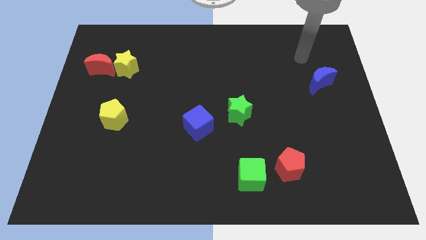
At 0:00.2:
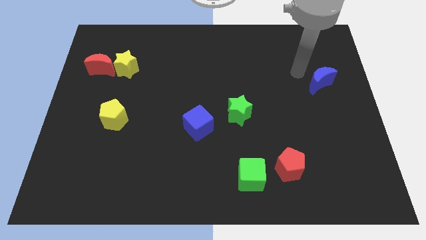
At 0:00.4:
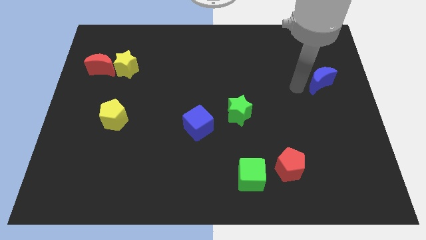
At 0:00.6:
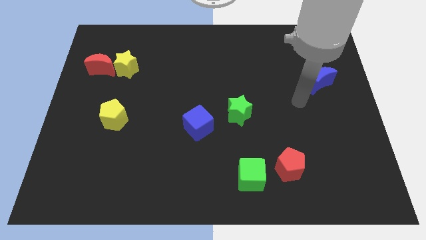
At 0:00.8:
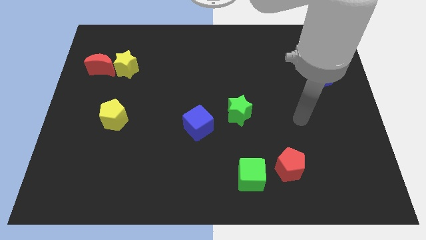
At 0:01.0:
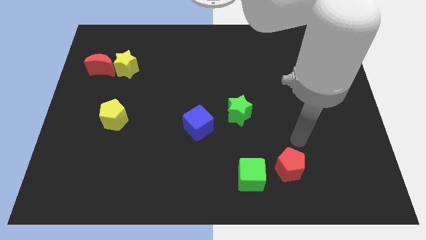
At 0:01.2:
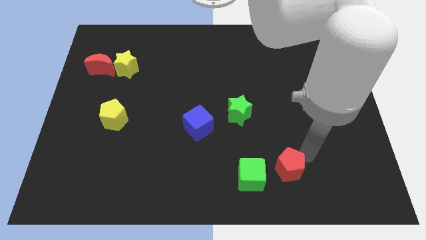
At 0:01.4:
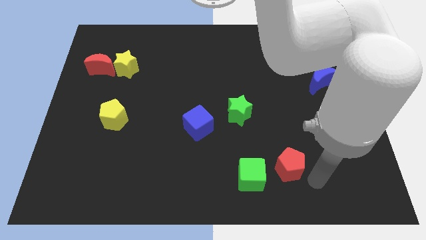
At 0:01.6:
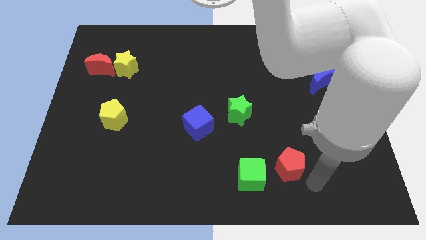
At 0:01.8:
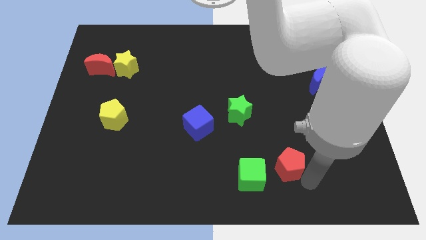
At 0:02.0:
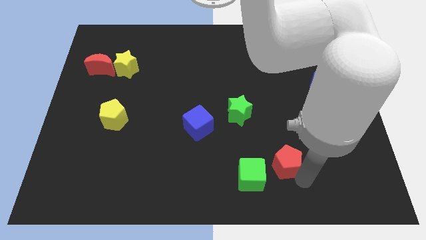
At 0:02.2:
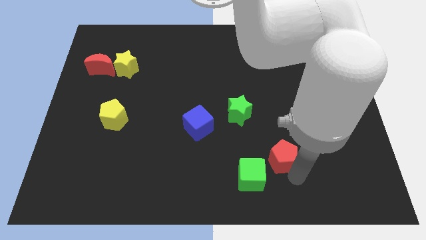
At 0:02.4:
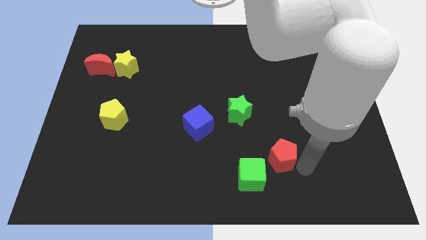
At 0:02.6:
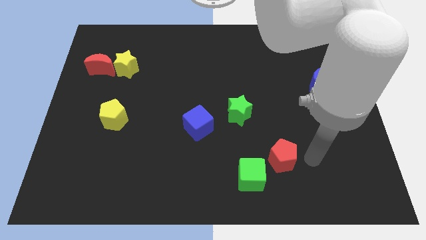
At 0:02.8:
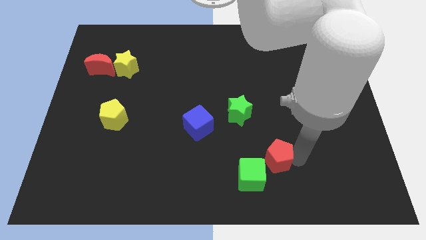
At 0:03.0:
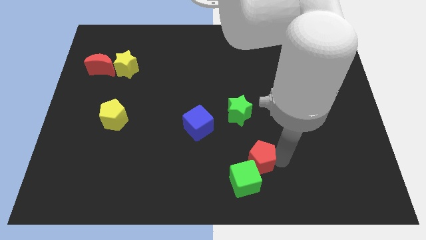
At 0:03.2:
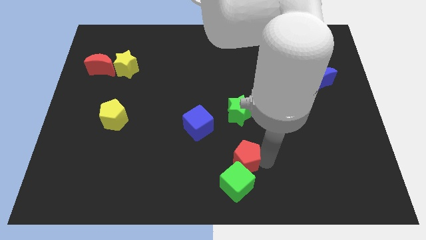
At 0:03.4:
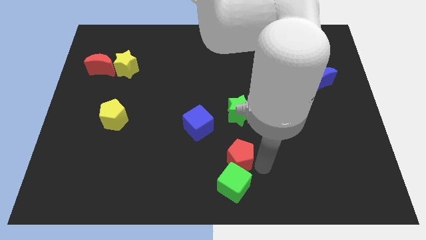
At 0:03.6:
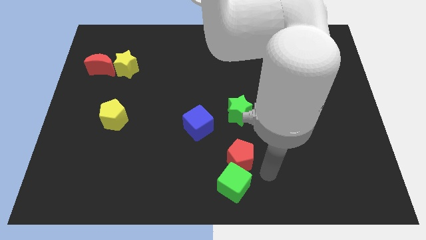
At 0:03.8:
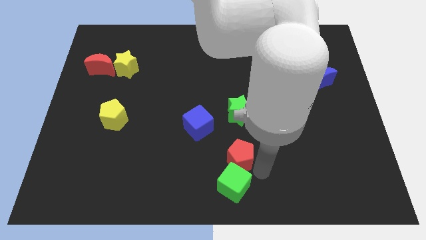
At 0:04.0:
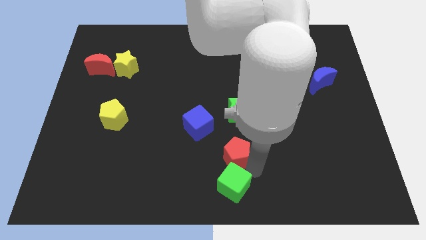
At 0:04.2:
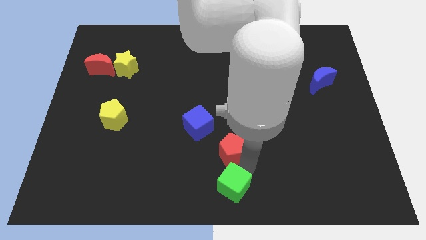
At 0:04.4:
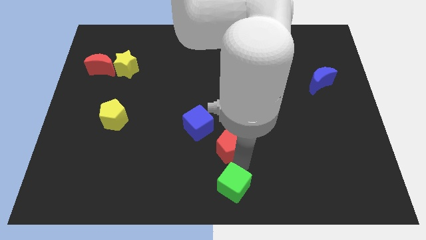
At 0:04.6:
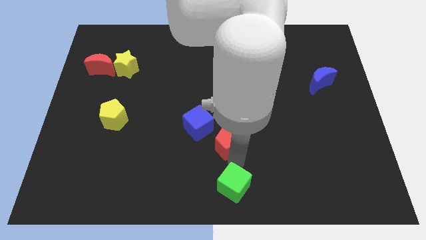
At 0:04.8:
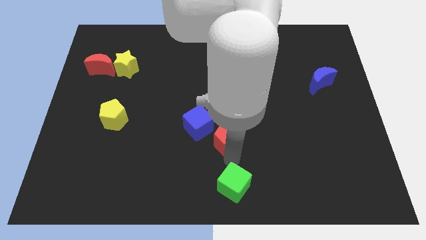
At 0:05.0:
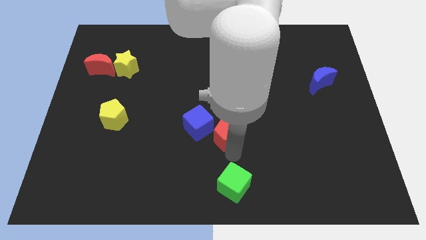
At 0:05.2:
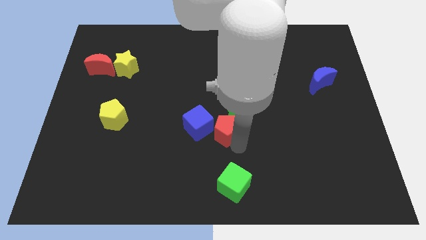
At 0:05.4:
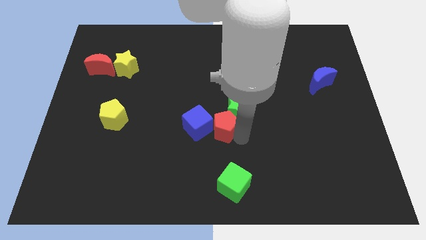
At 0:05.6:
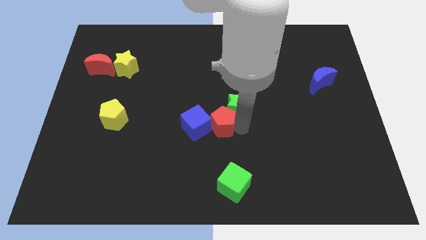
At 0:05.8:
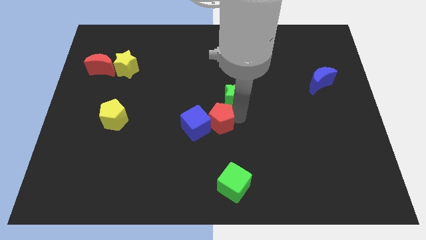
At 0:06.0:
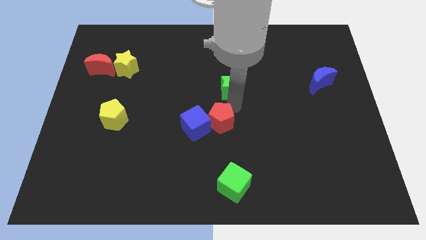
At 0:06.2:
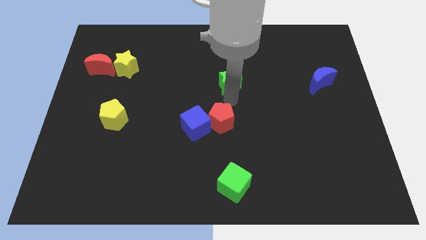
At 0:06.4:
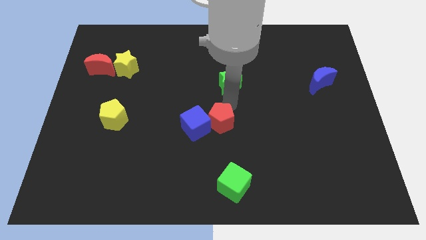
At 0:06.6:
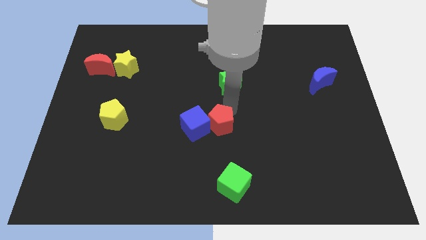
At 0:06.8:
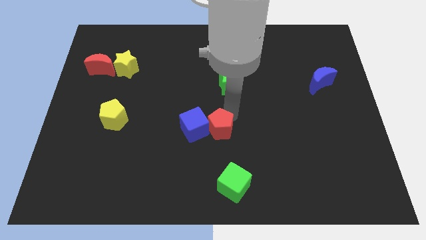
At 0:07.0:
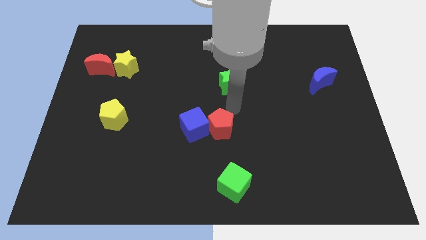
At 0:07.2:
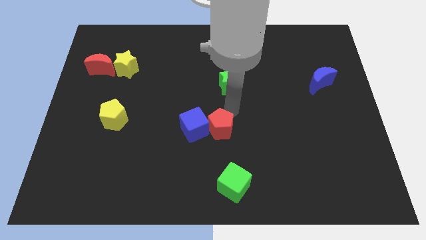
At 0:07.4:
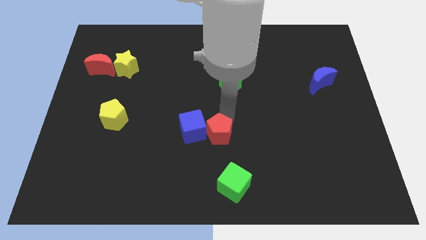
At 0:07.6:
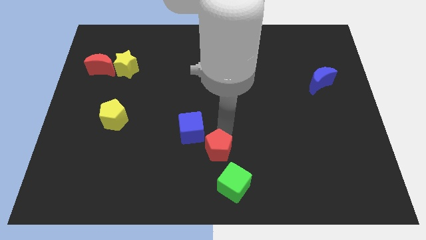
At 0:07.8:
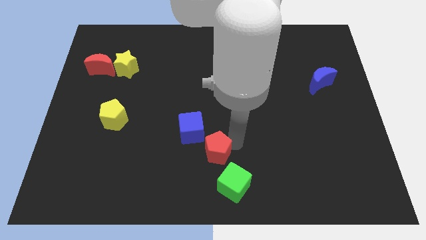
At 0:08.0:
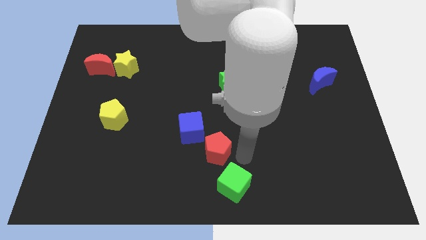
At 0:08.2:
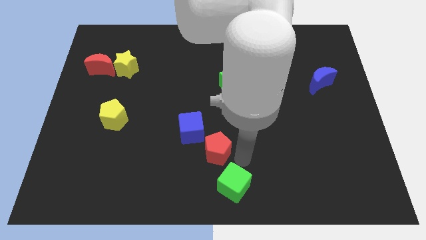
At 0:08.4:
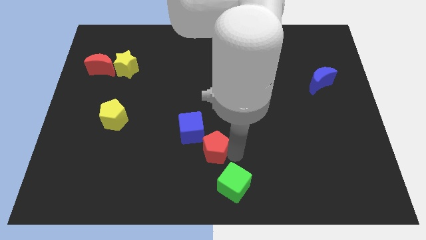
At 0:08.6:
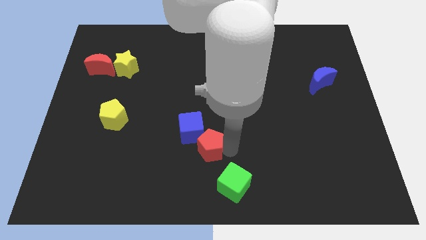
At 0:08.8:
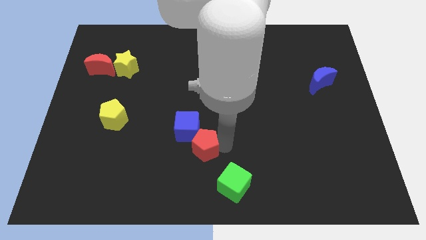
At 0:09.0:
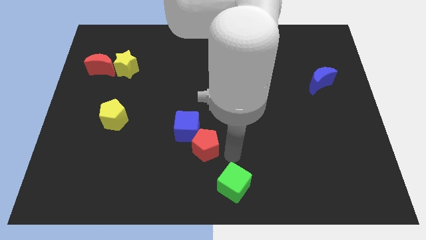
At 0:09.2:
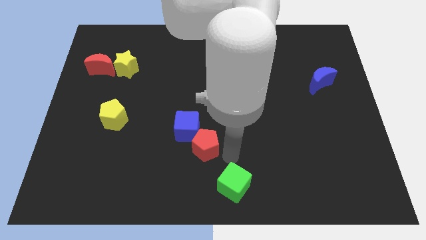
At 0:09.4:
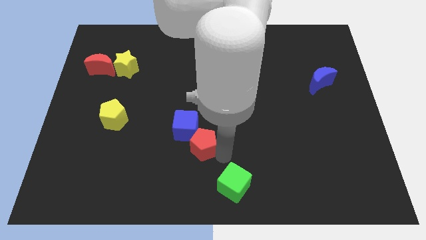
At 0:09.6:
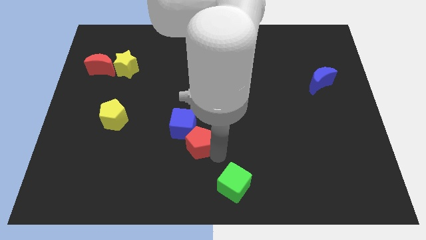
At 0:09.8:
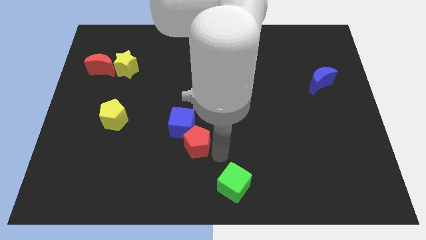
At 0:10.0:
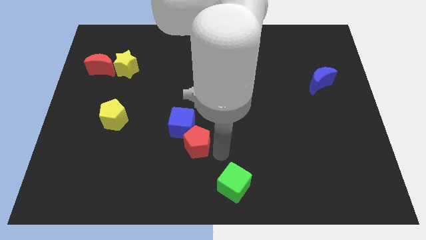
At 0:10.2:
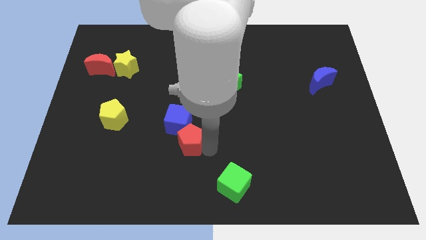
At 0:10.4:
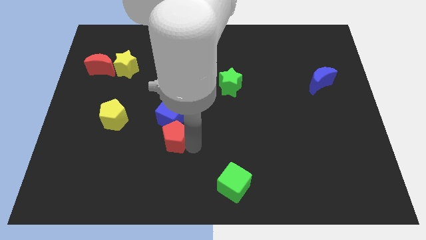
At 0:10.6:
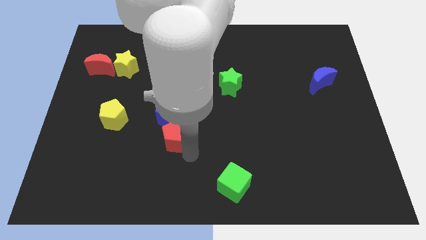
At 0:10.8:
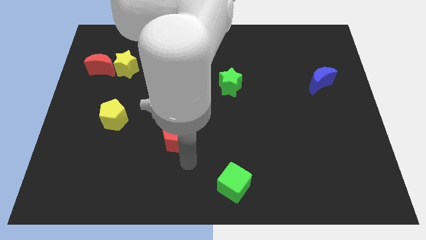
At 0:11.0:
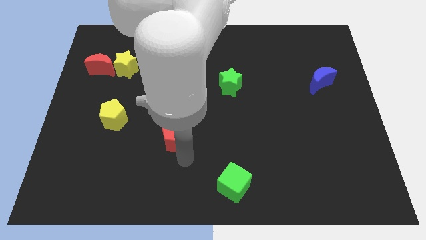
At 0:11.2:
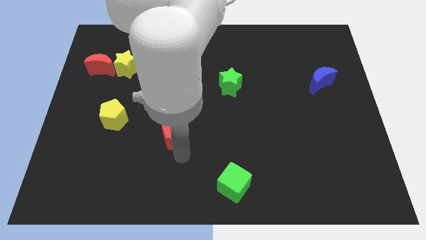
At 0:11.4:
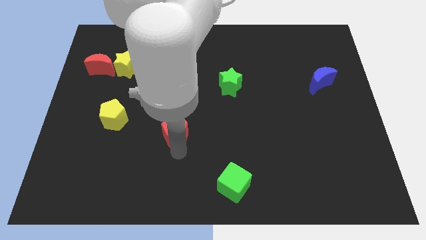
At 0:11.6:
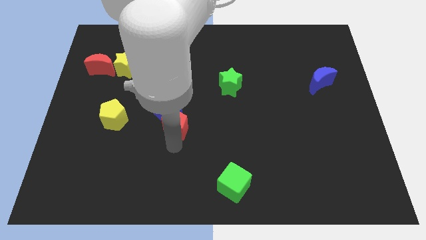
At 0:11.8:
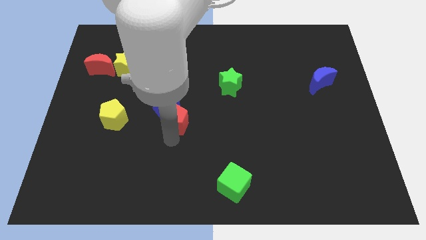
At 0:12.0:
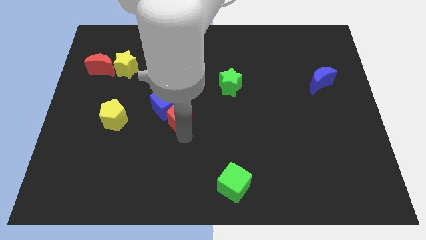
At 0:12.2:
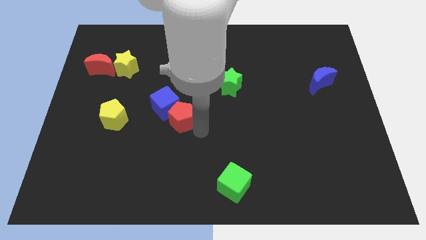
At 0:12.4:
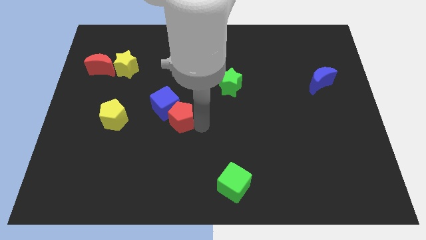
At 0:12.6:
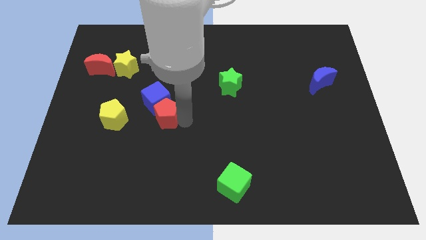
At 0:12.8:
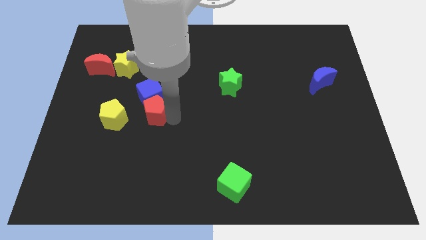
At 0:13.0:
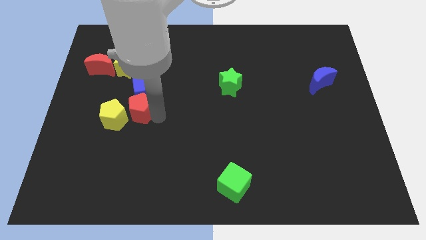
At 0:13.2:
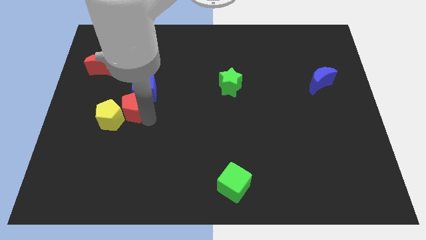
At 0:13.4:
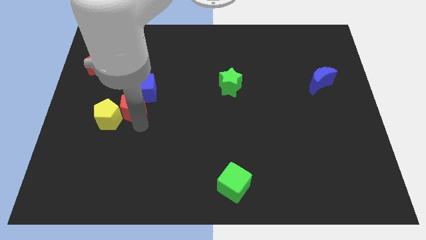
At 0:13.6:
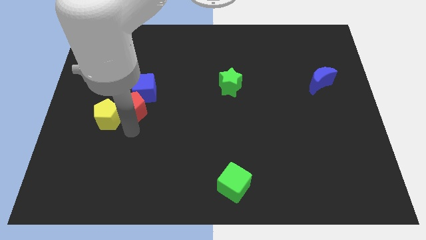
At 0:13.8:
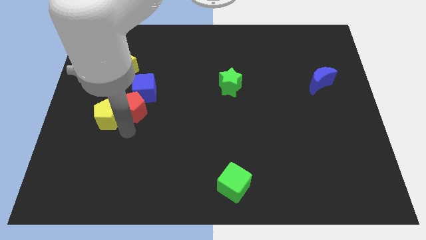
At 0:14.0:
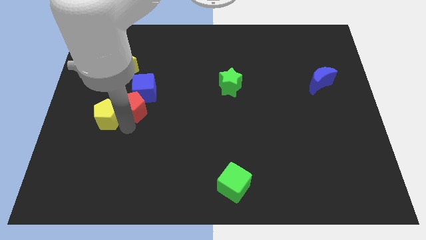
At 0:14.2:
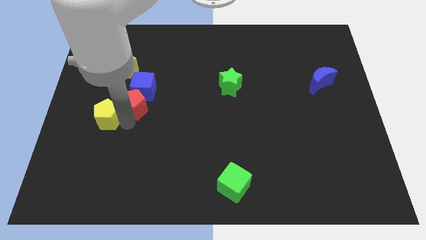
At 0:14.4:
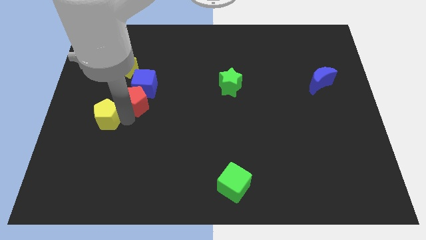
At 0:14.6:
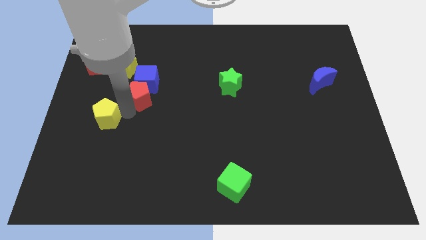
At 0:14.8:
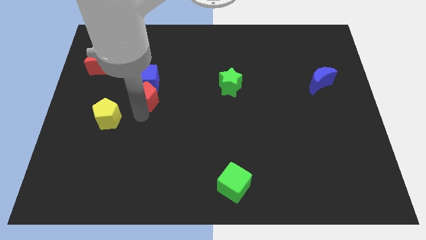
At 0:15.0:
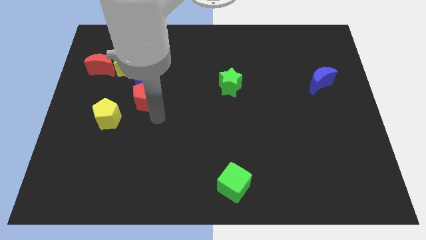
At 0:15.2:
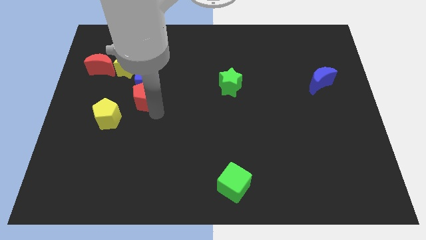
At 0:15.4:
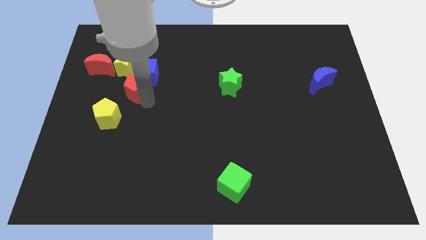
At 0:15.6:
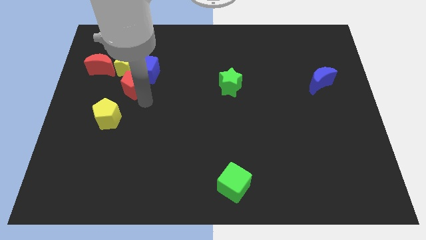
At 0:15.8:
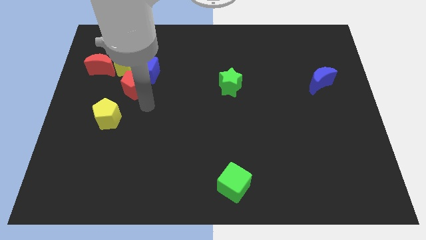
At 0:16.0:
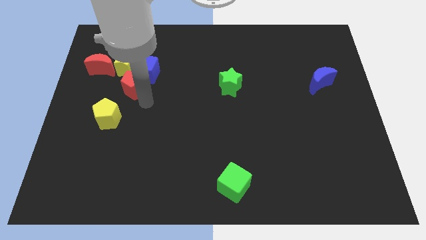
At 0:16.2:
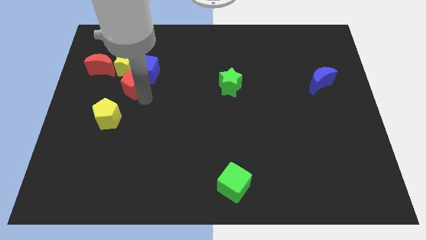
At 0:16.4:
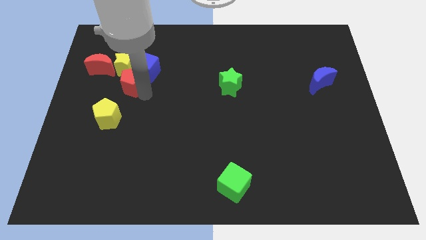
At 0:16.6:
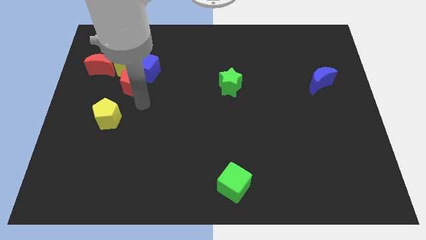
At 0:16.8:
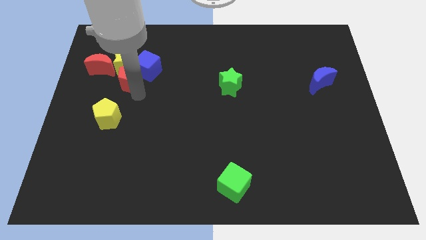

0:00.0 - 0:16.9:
slide the red pentagon close to the yellow star
